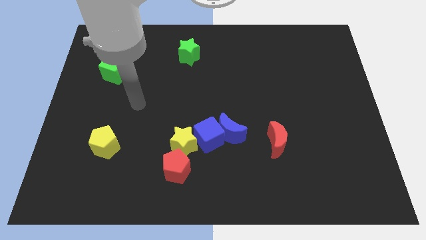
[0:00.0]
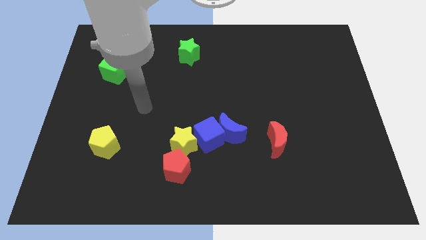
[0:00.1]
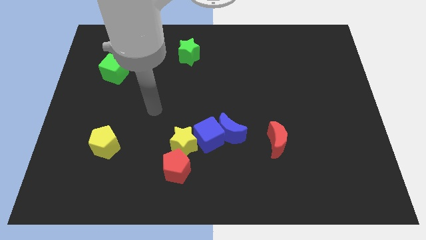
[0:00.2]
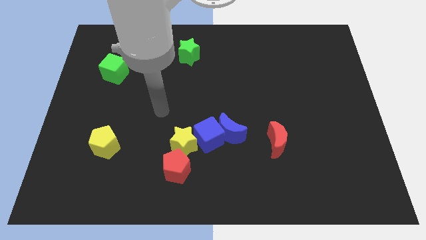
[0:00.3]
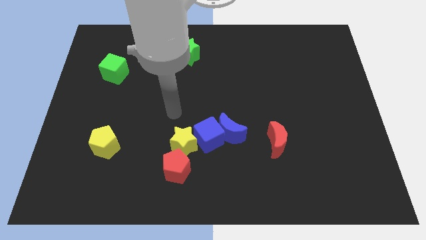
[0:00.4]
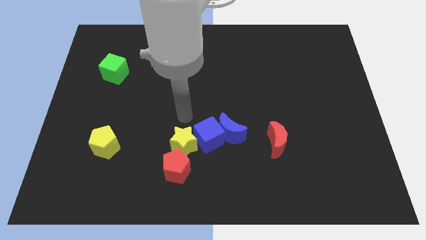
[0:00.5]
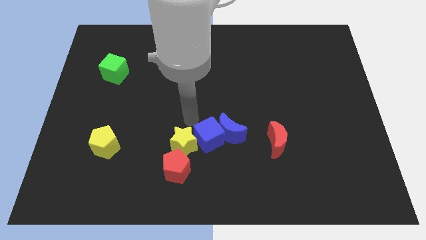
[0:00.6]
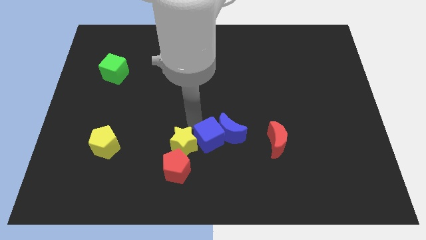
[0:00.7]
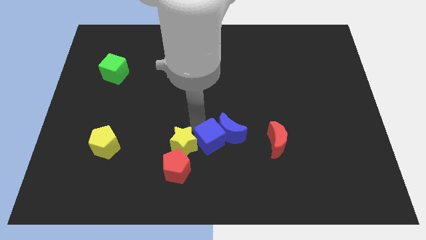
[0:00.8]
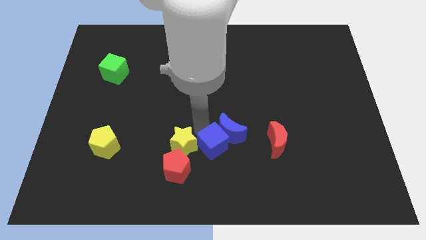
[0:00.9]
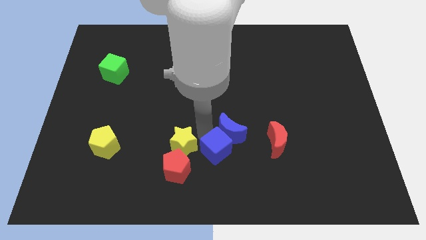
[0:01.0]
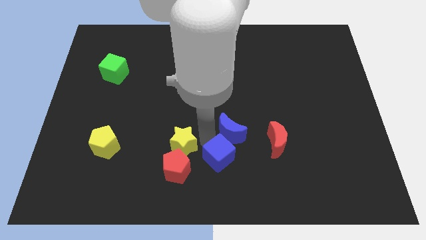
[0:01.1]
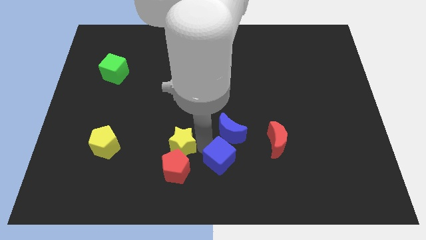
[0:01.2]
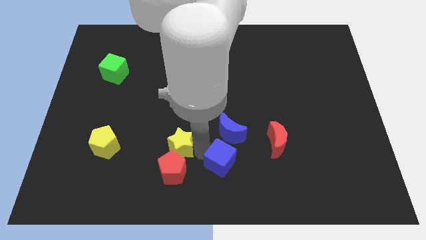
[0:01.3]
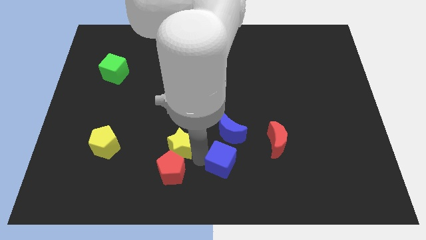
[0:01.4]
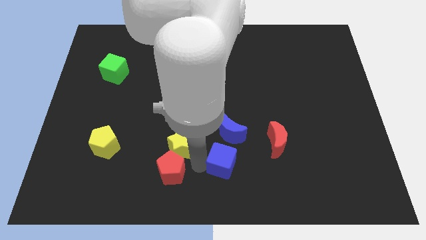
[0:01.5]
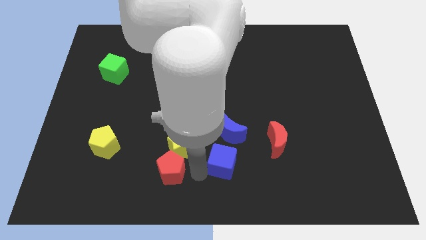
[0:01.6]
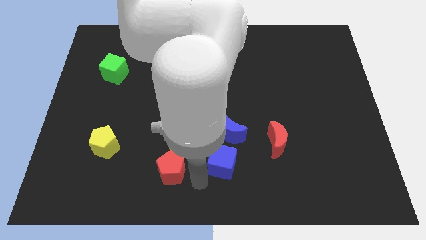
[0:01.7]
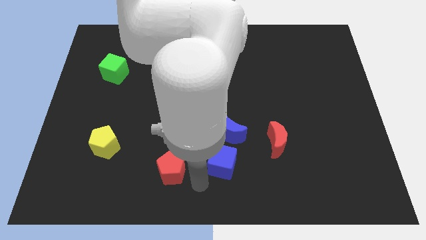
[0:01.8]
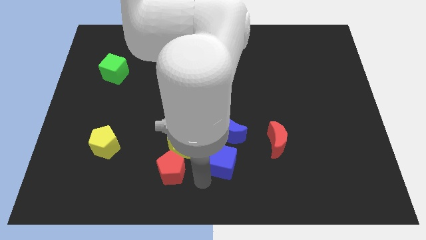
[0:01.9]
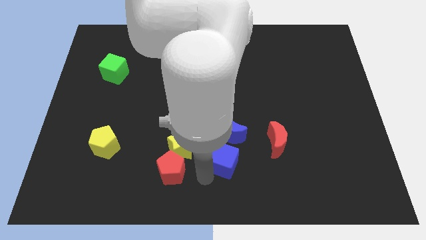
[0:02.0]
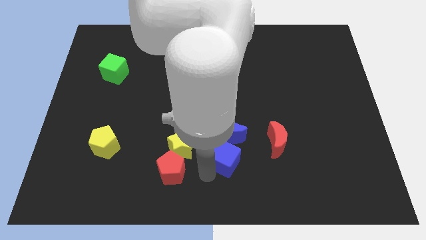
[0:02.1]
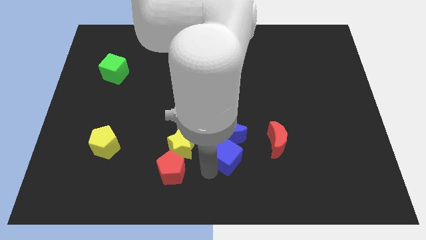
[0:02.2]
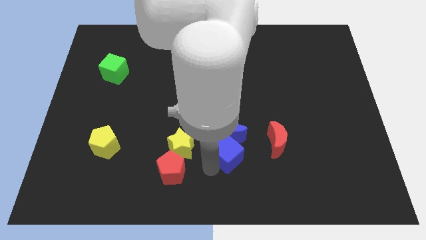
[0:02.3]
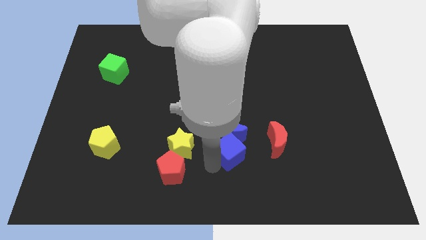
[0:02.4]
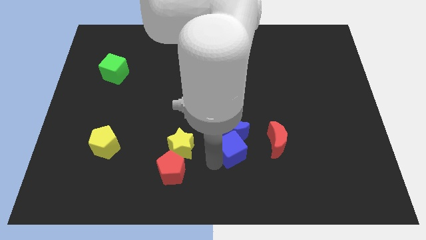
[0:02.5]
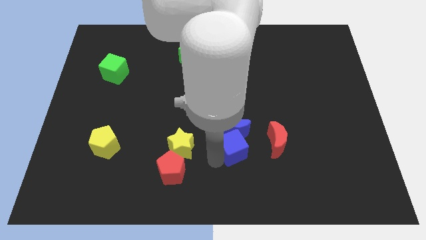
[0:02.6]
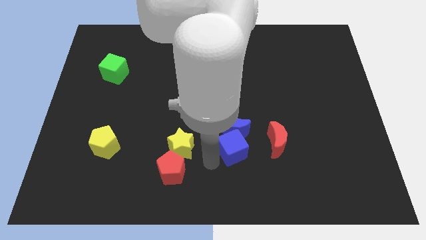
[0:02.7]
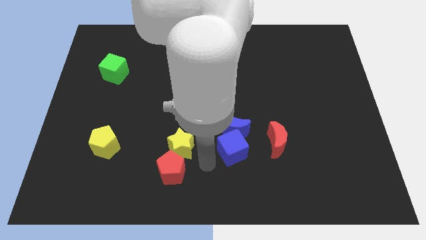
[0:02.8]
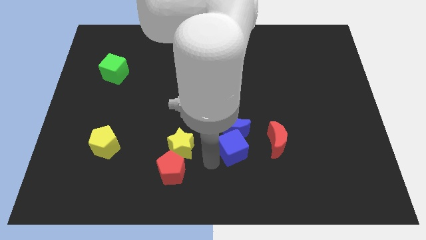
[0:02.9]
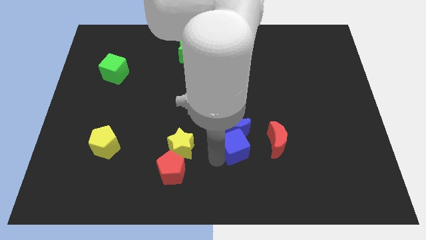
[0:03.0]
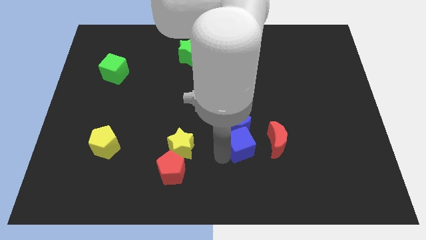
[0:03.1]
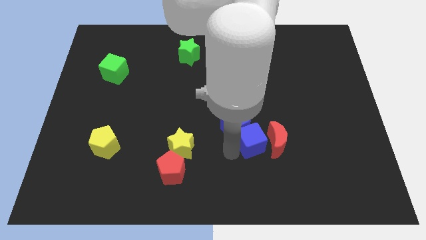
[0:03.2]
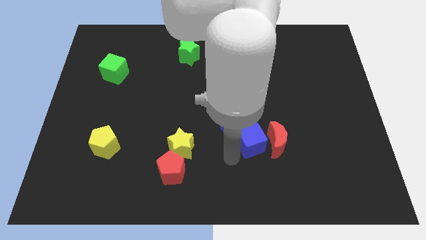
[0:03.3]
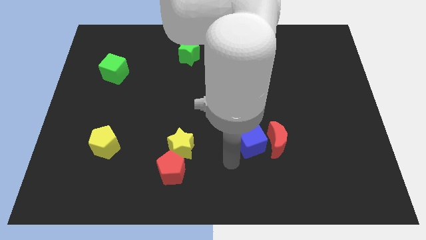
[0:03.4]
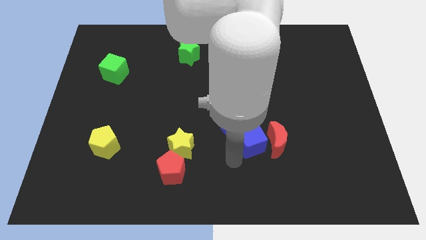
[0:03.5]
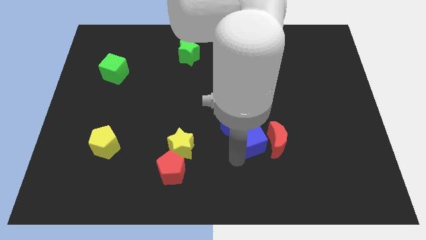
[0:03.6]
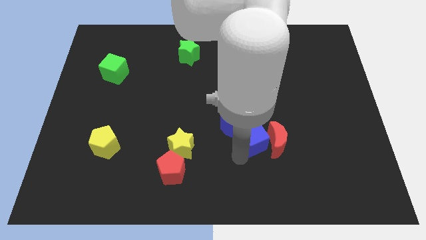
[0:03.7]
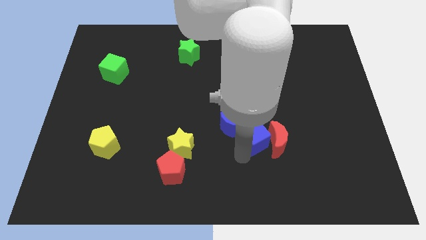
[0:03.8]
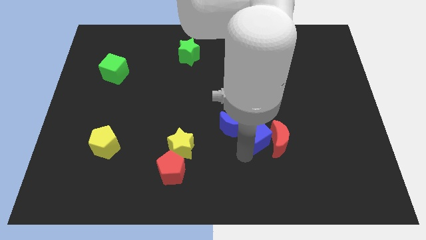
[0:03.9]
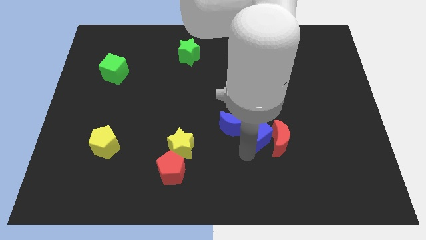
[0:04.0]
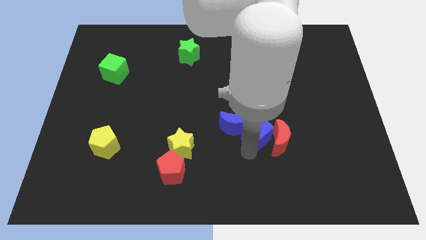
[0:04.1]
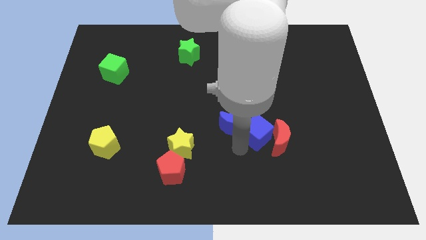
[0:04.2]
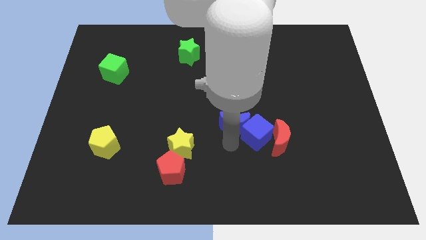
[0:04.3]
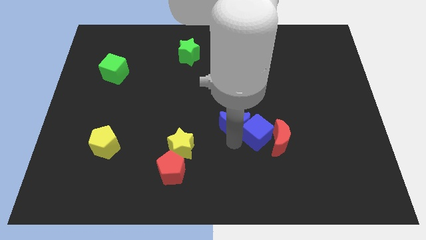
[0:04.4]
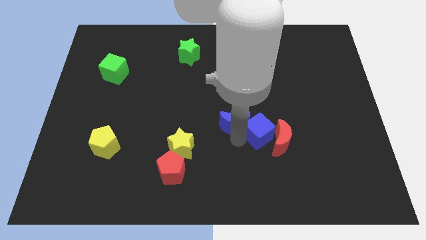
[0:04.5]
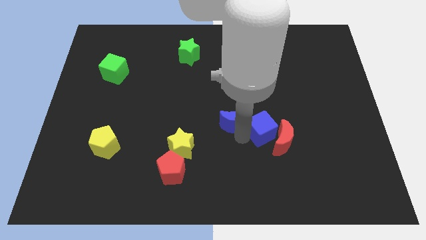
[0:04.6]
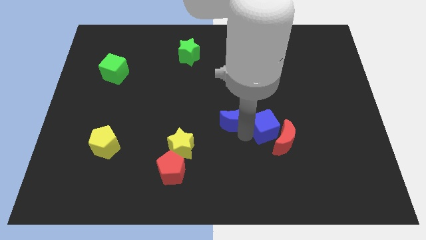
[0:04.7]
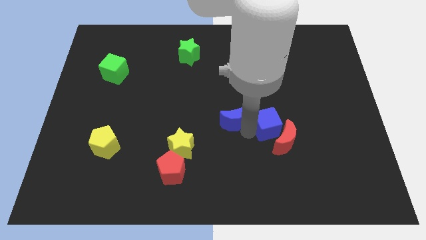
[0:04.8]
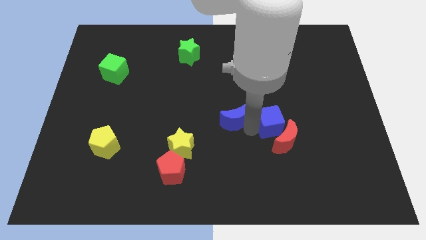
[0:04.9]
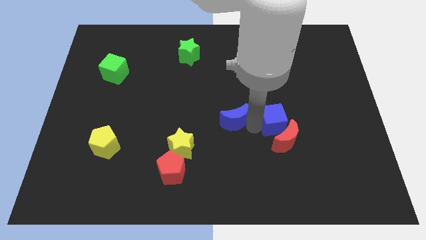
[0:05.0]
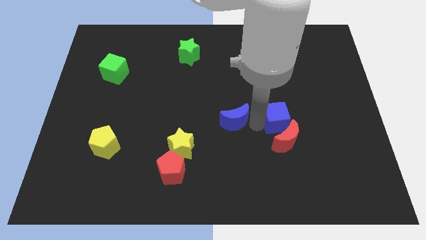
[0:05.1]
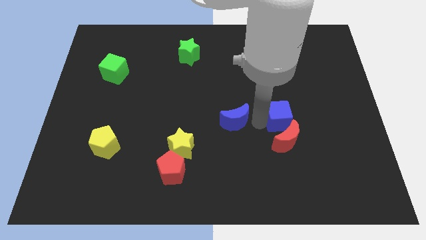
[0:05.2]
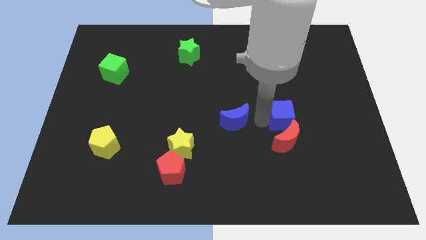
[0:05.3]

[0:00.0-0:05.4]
slide the blue cube to the top right side of the red moon

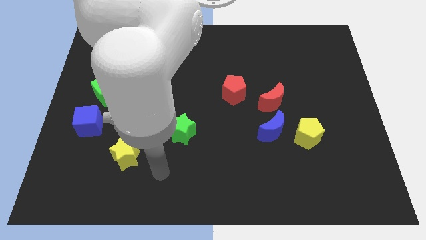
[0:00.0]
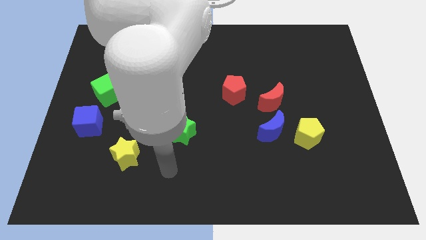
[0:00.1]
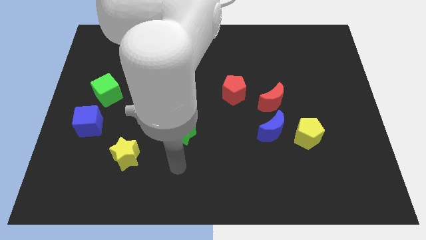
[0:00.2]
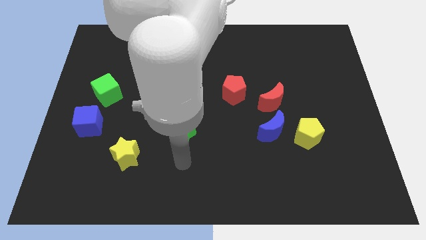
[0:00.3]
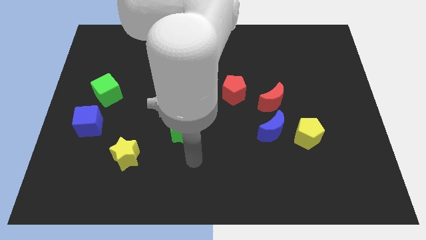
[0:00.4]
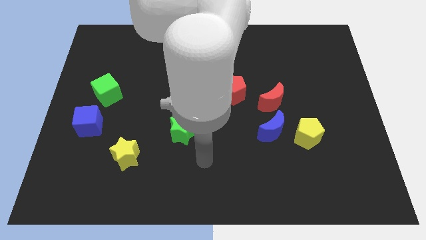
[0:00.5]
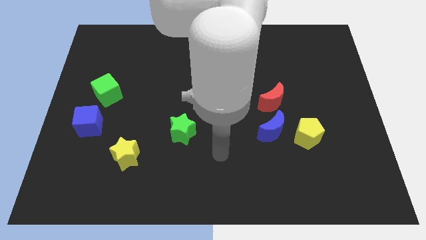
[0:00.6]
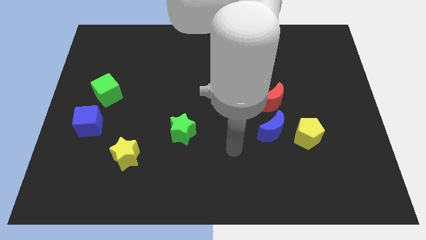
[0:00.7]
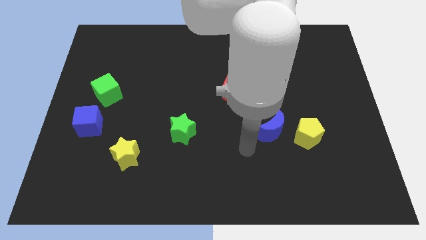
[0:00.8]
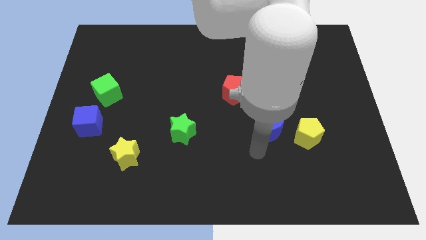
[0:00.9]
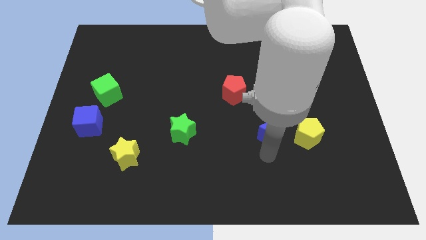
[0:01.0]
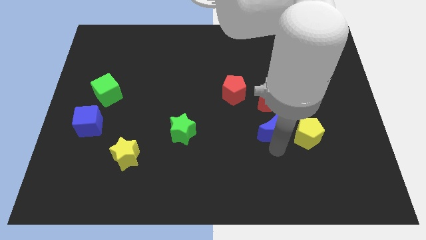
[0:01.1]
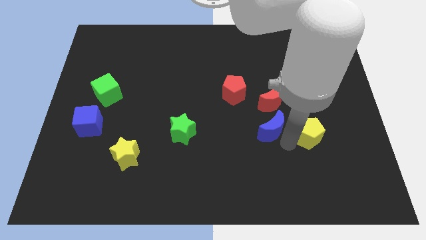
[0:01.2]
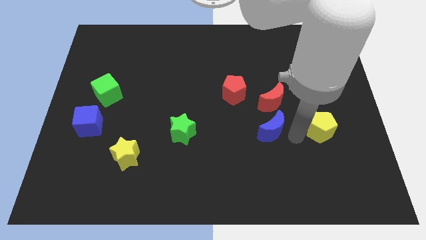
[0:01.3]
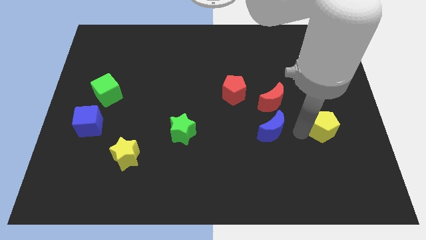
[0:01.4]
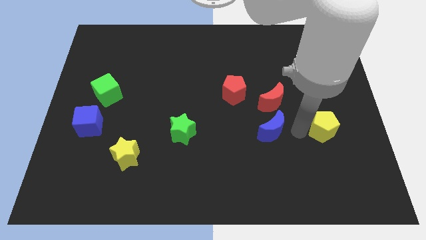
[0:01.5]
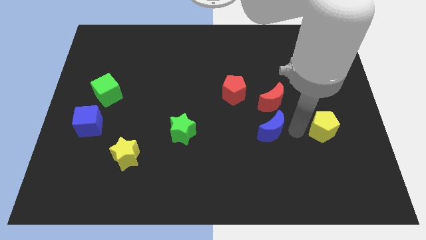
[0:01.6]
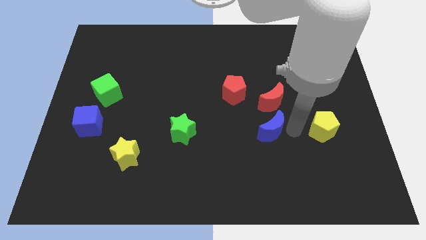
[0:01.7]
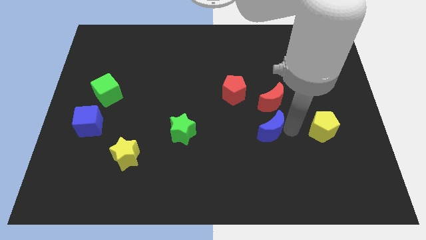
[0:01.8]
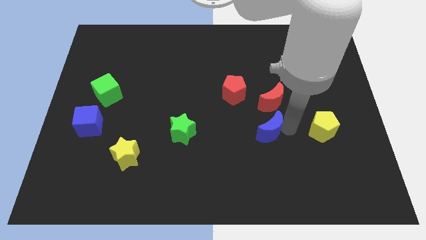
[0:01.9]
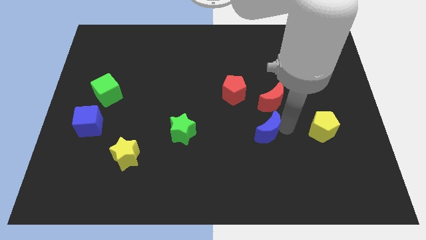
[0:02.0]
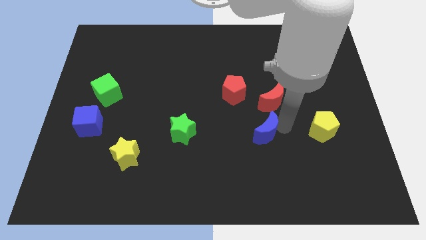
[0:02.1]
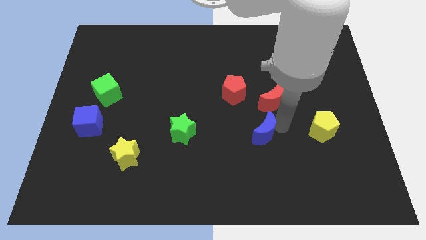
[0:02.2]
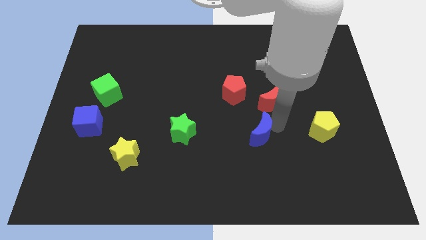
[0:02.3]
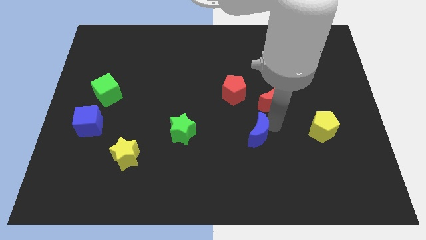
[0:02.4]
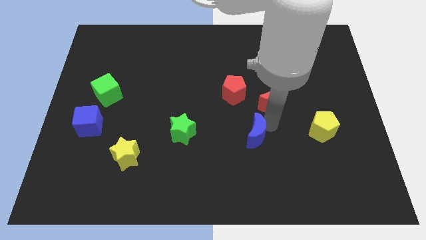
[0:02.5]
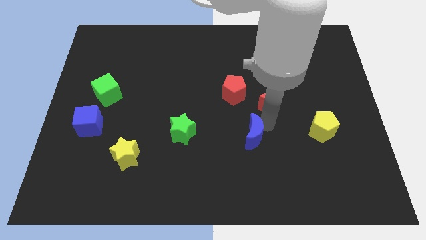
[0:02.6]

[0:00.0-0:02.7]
put the blue moon right of the green star
